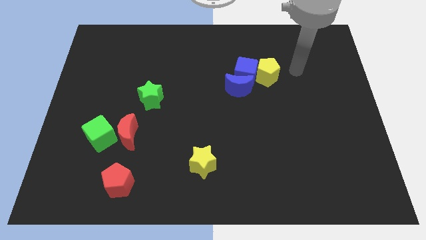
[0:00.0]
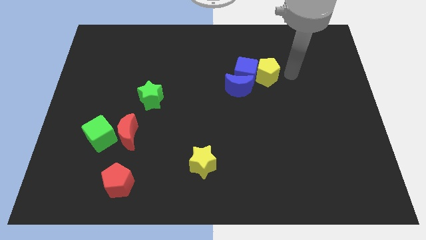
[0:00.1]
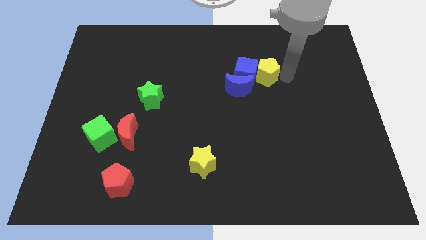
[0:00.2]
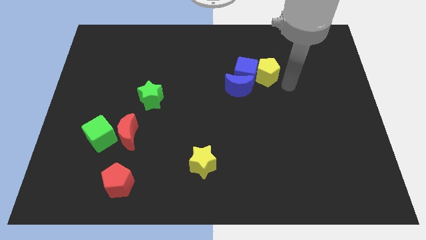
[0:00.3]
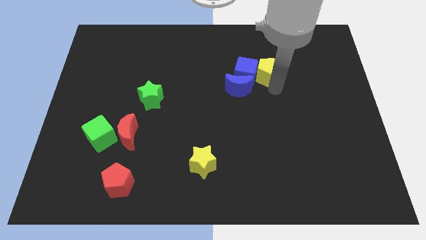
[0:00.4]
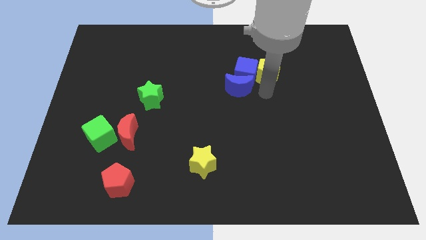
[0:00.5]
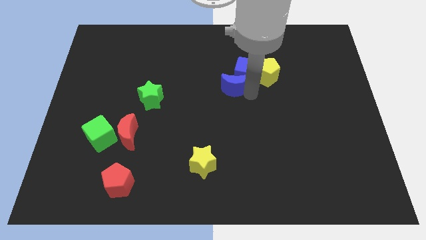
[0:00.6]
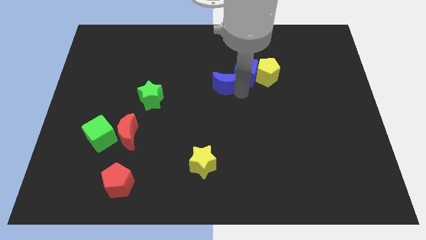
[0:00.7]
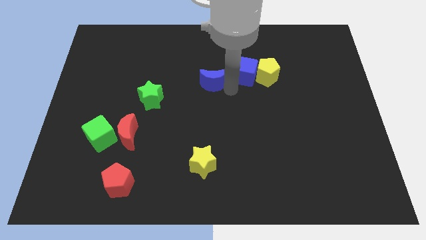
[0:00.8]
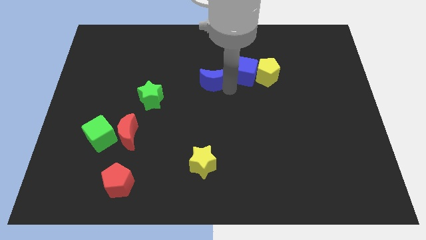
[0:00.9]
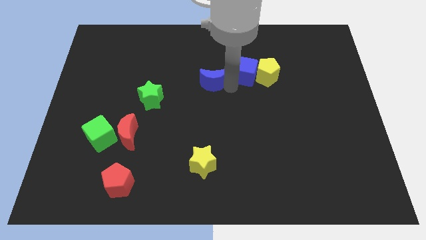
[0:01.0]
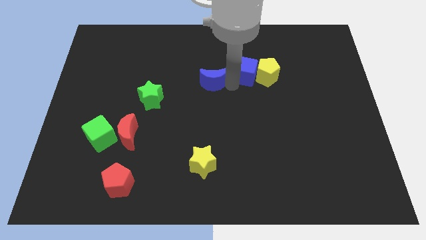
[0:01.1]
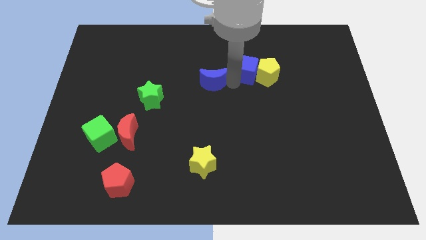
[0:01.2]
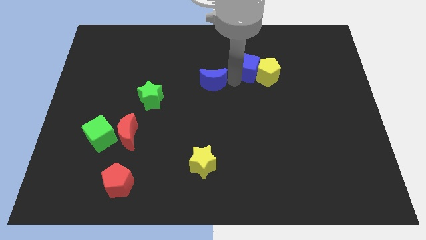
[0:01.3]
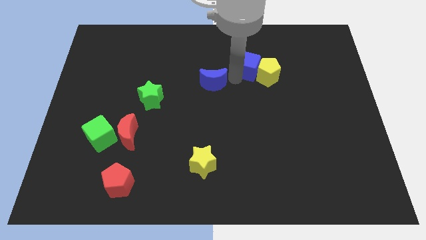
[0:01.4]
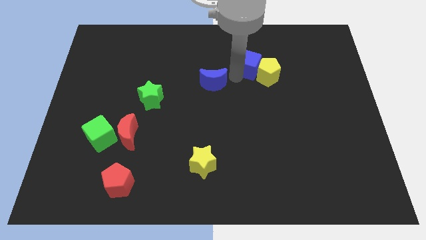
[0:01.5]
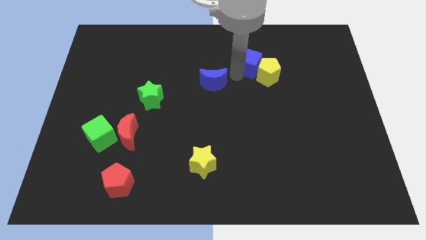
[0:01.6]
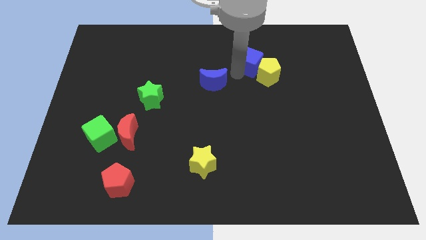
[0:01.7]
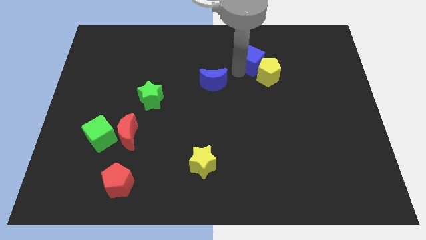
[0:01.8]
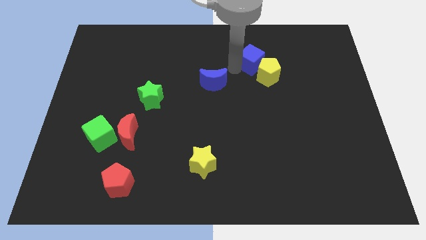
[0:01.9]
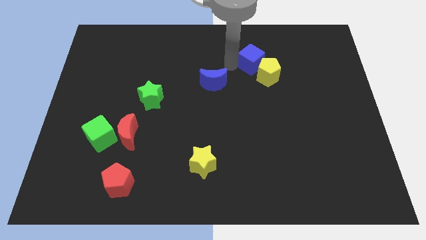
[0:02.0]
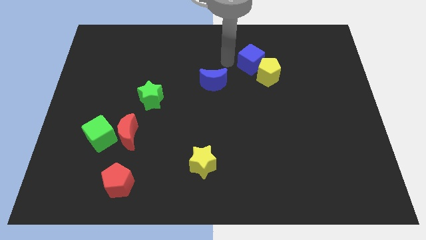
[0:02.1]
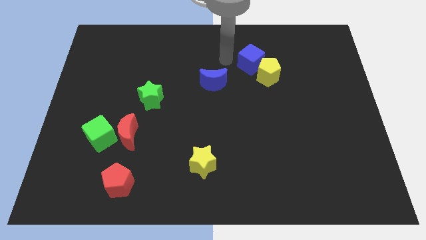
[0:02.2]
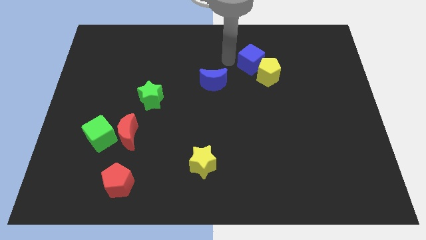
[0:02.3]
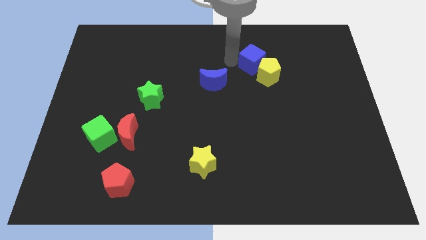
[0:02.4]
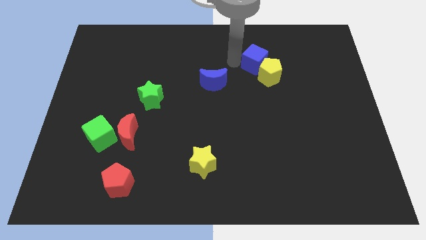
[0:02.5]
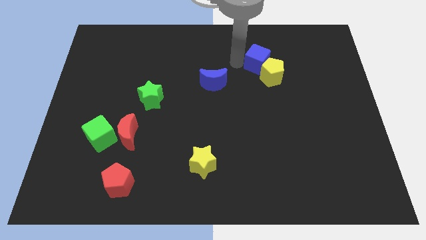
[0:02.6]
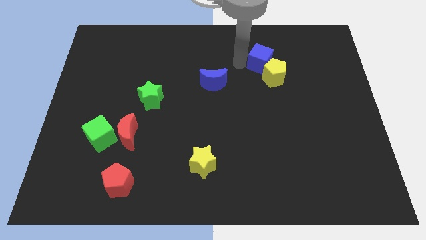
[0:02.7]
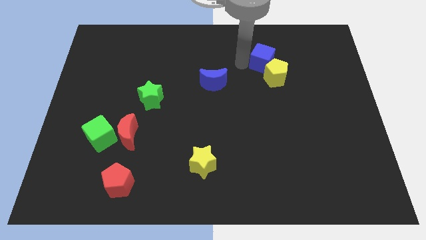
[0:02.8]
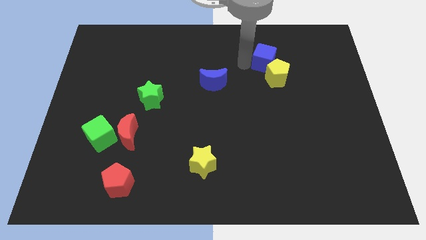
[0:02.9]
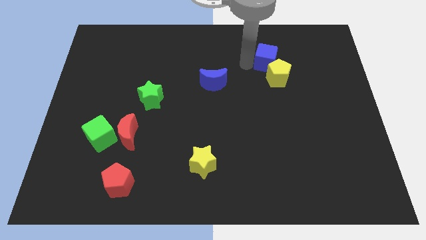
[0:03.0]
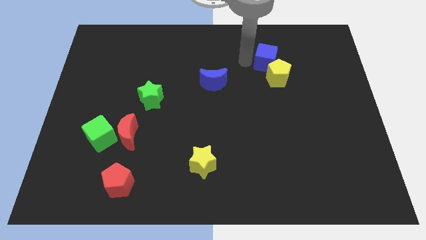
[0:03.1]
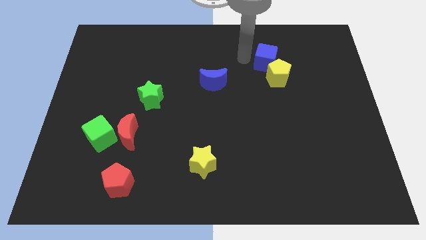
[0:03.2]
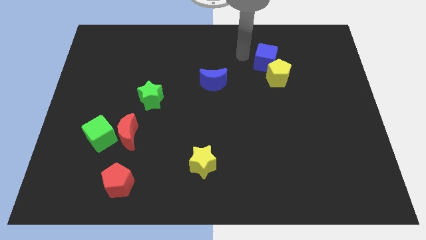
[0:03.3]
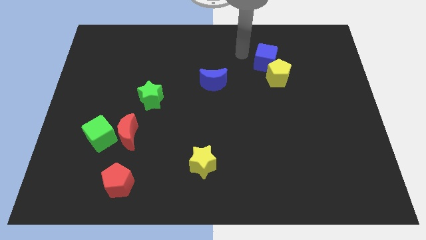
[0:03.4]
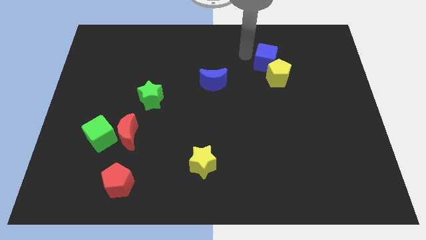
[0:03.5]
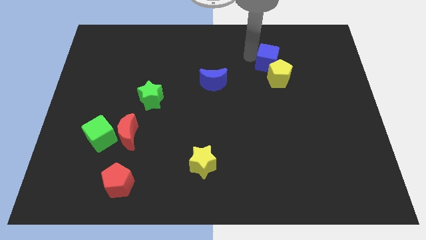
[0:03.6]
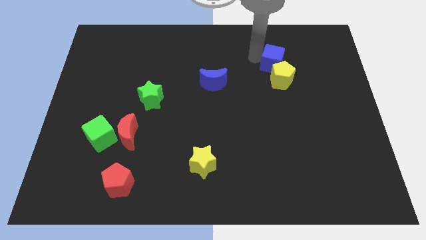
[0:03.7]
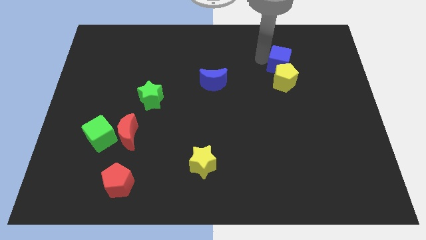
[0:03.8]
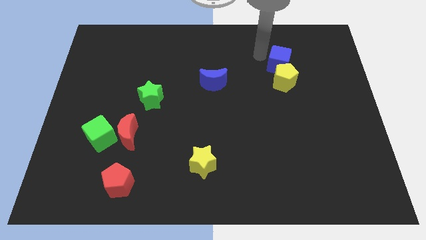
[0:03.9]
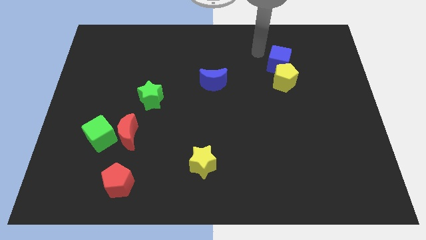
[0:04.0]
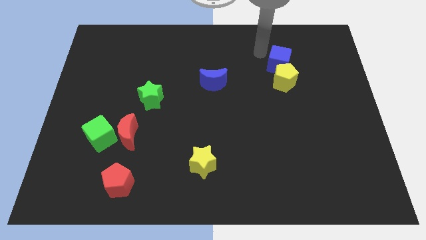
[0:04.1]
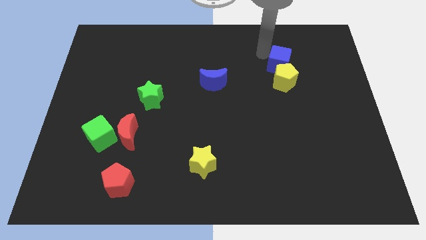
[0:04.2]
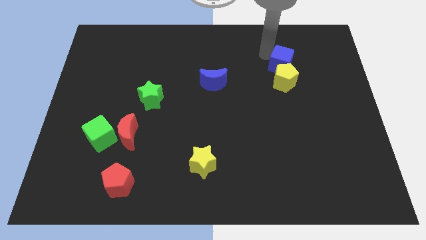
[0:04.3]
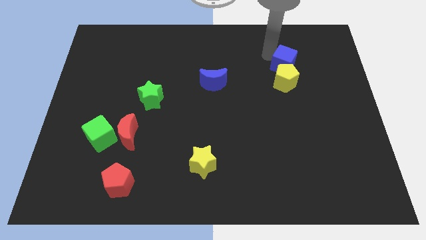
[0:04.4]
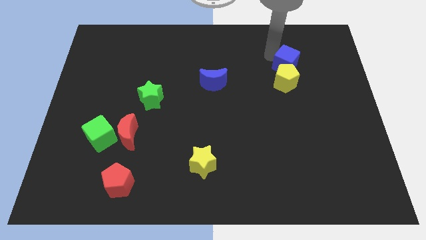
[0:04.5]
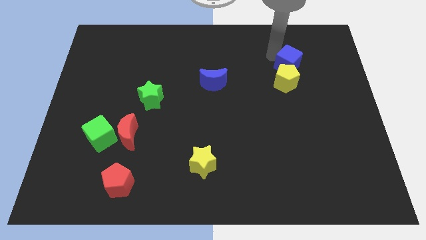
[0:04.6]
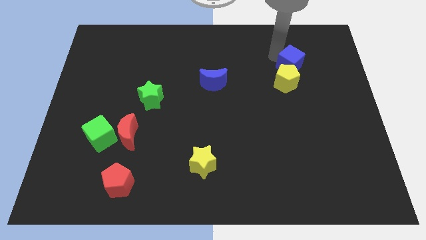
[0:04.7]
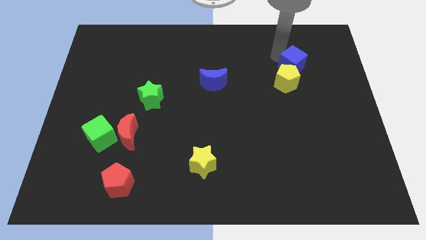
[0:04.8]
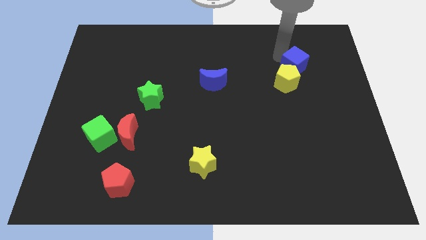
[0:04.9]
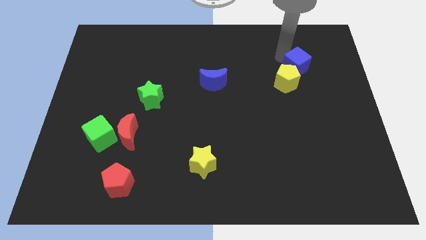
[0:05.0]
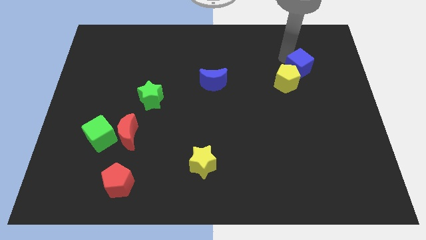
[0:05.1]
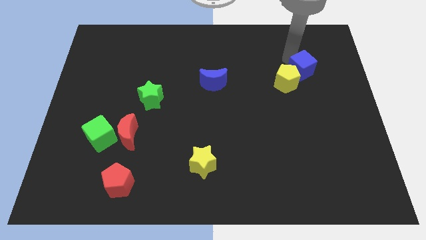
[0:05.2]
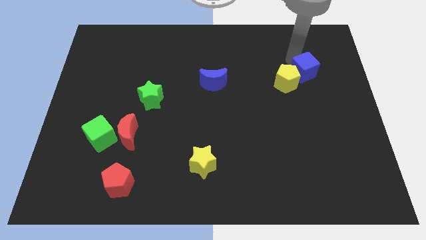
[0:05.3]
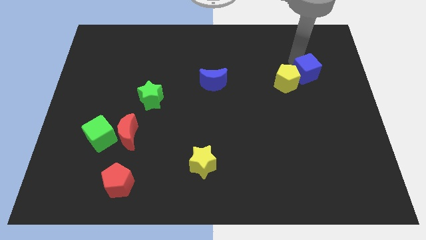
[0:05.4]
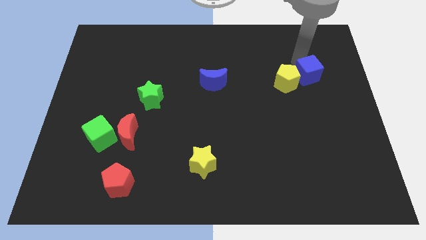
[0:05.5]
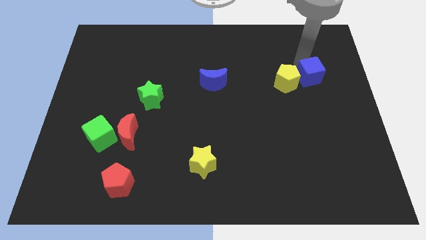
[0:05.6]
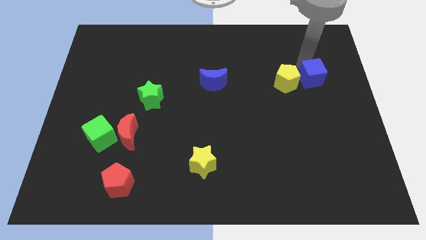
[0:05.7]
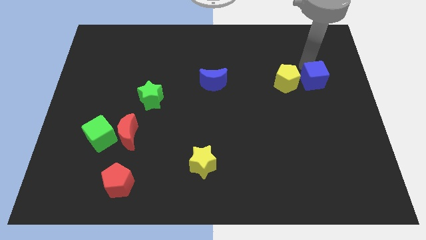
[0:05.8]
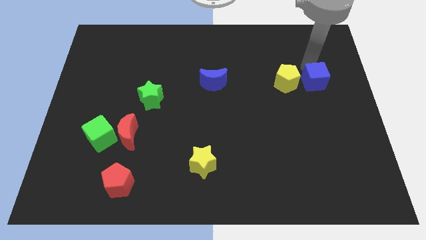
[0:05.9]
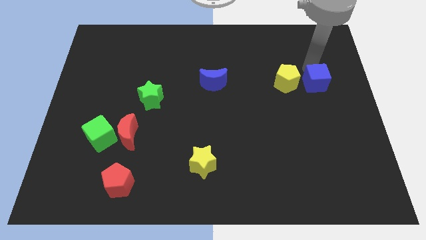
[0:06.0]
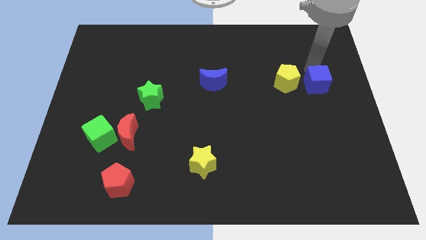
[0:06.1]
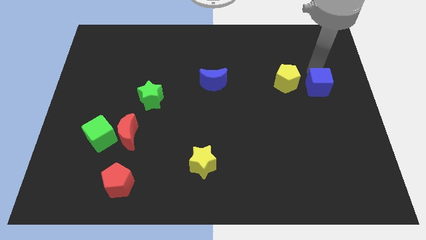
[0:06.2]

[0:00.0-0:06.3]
push the blue cube to the center right
